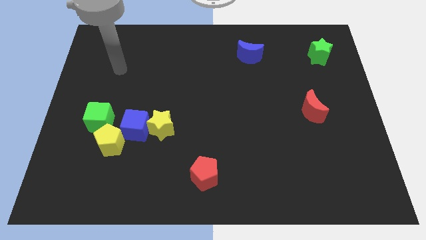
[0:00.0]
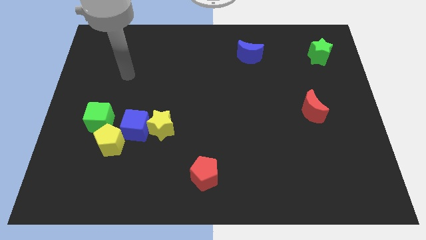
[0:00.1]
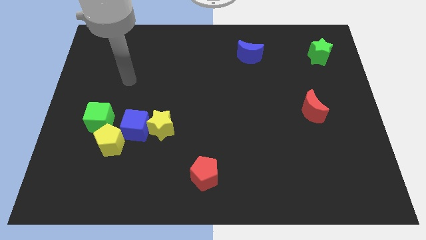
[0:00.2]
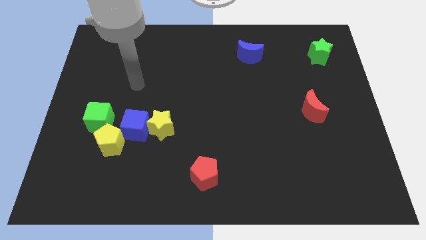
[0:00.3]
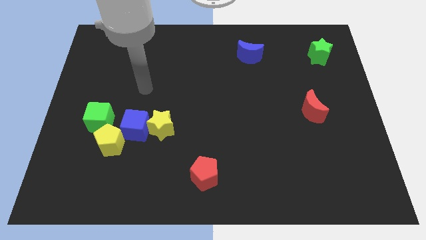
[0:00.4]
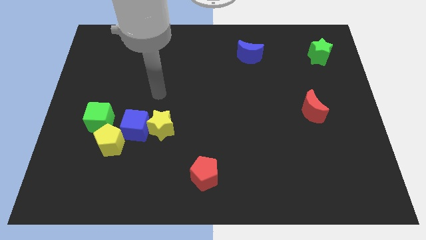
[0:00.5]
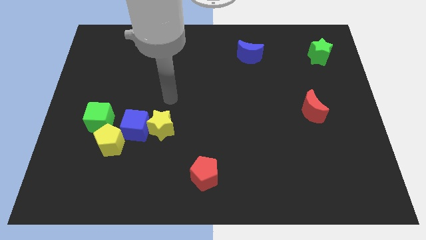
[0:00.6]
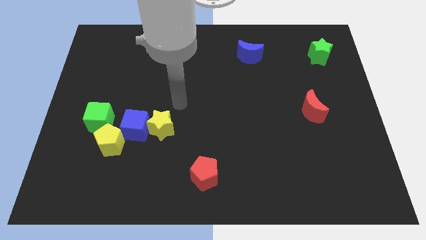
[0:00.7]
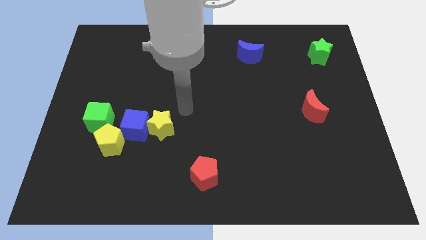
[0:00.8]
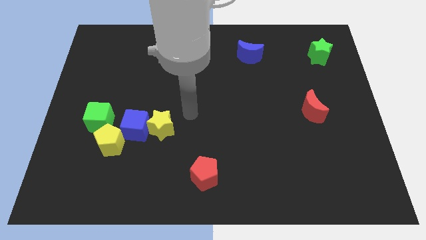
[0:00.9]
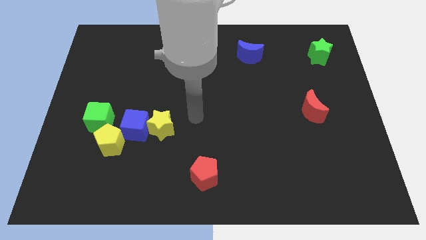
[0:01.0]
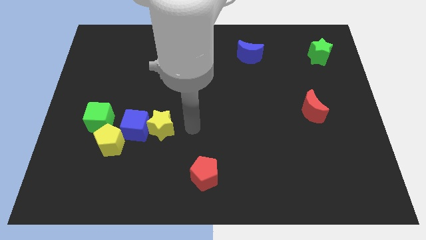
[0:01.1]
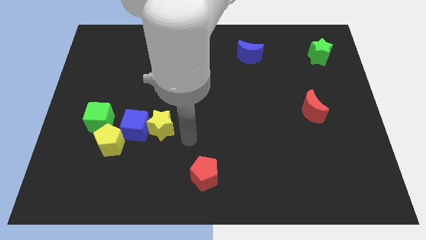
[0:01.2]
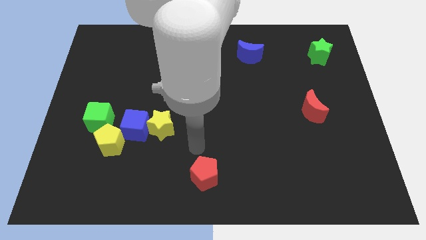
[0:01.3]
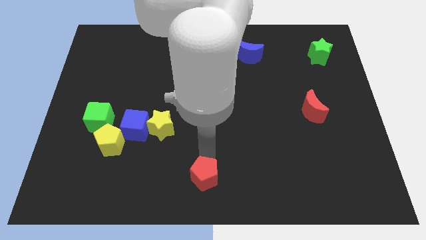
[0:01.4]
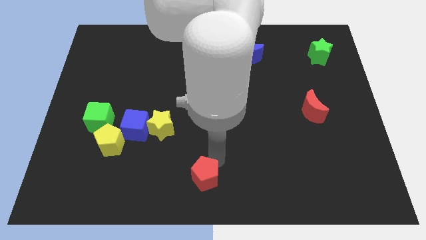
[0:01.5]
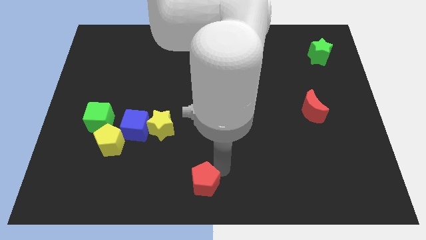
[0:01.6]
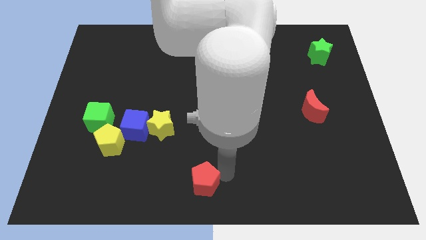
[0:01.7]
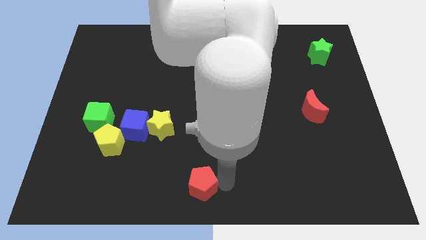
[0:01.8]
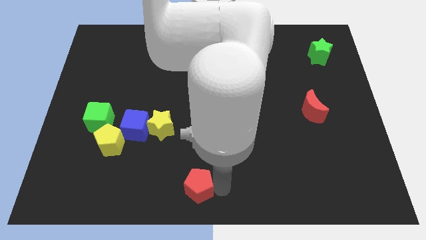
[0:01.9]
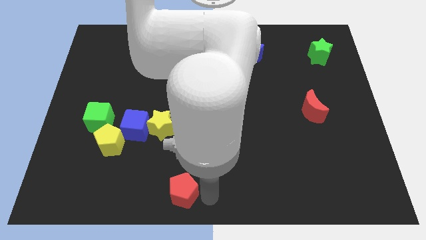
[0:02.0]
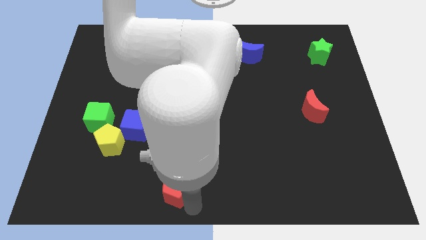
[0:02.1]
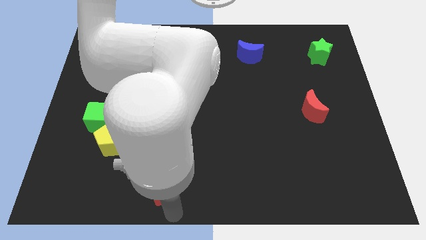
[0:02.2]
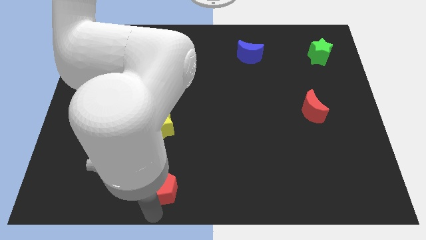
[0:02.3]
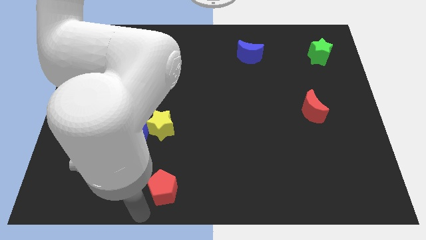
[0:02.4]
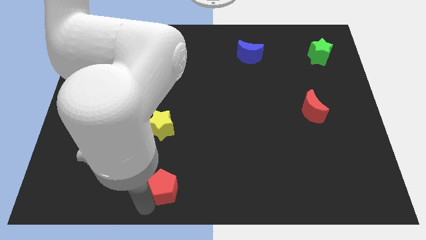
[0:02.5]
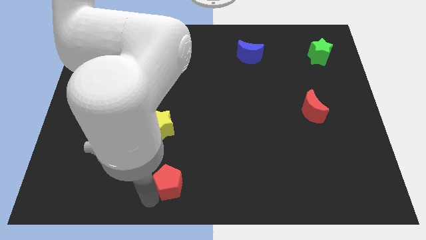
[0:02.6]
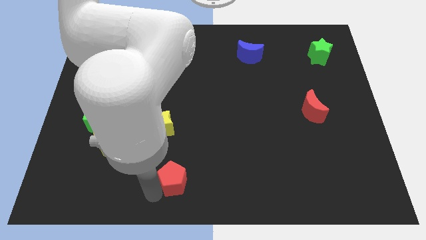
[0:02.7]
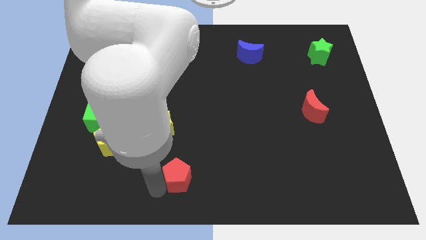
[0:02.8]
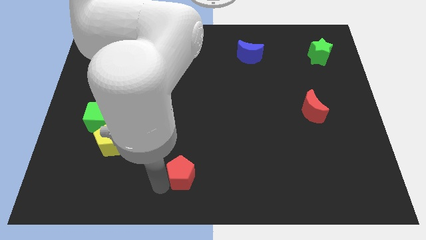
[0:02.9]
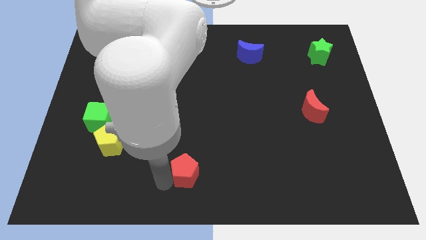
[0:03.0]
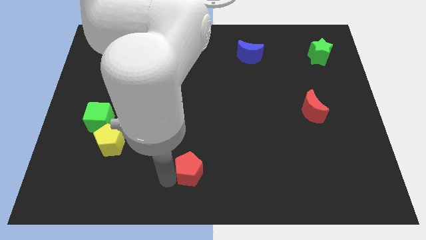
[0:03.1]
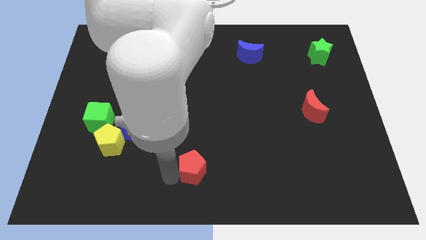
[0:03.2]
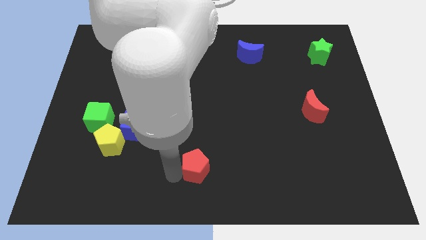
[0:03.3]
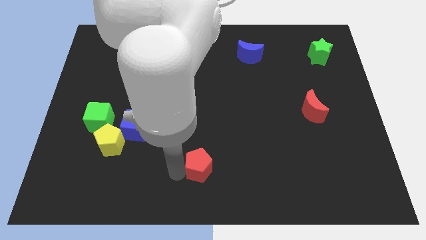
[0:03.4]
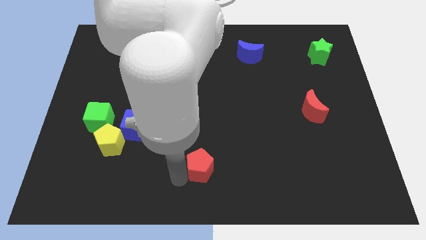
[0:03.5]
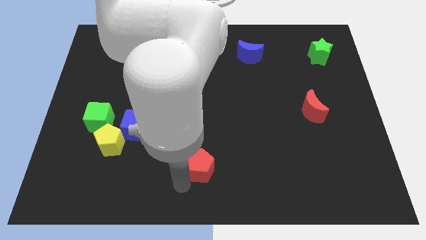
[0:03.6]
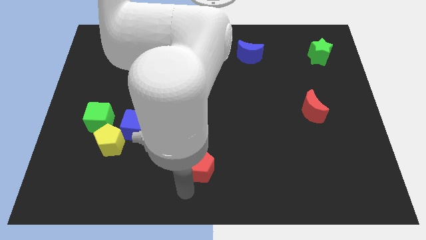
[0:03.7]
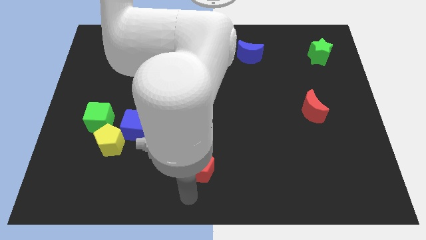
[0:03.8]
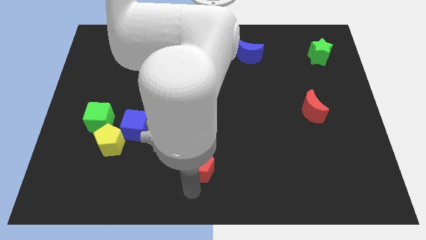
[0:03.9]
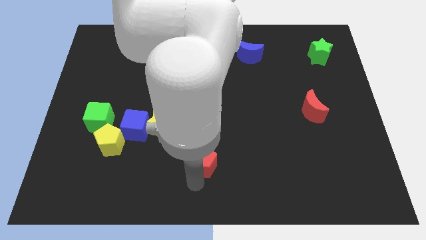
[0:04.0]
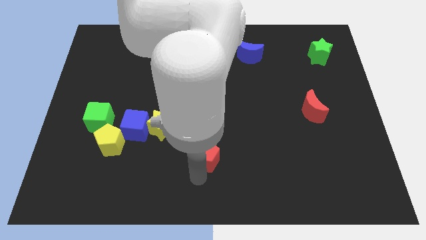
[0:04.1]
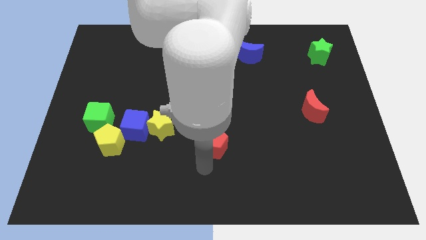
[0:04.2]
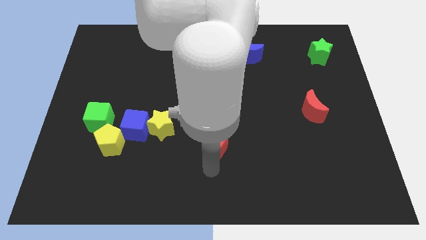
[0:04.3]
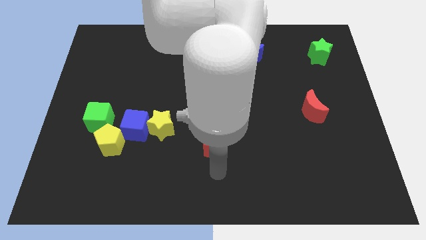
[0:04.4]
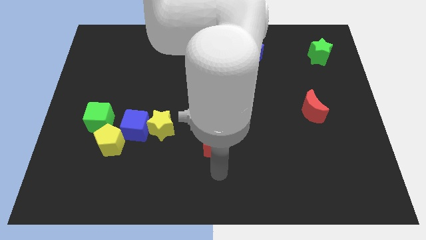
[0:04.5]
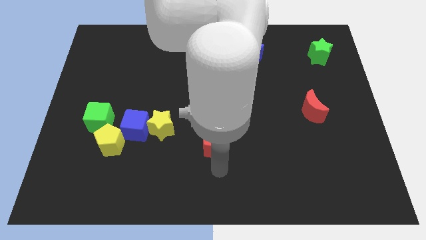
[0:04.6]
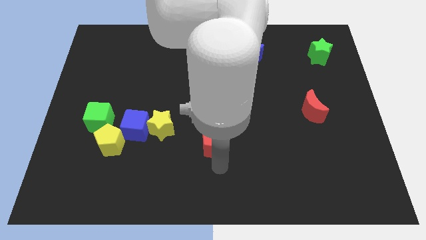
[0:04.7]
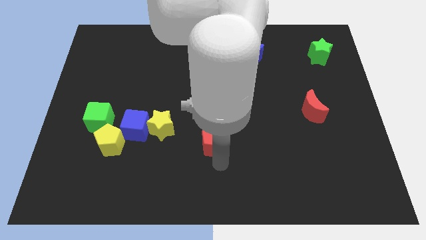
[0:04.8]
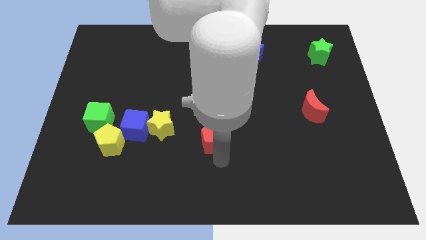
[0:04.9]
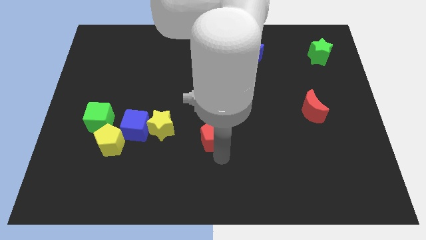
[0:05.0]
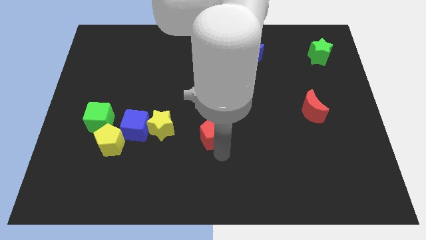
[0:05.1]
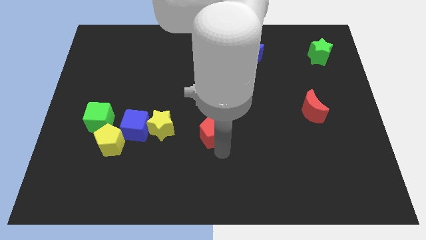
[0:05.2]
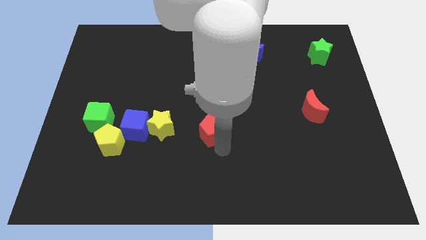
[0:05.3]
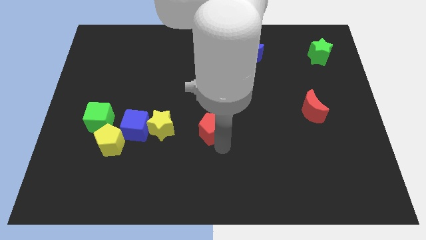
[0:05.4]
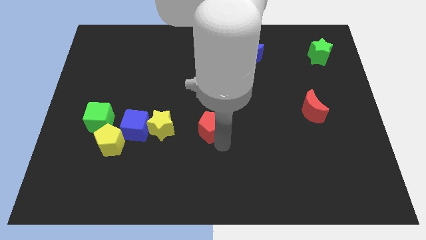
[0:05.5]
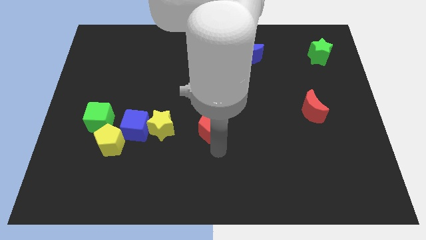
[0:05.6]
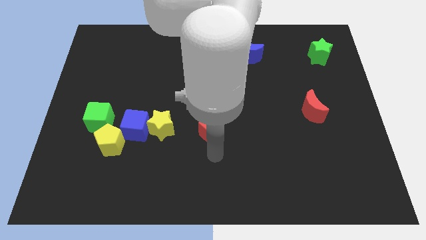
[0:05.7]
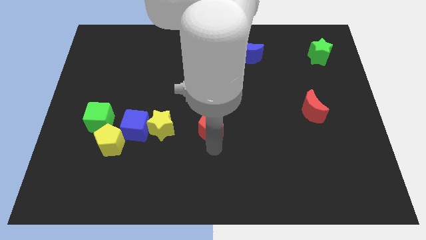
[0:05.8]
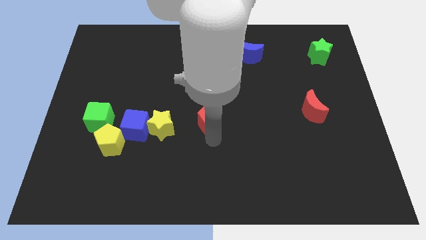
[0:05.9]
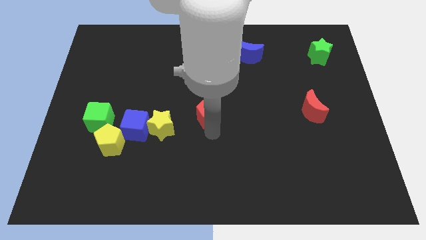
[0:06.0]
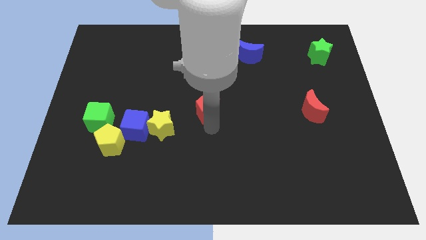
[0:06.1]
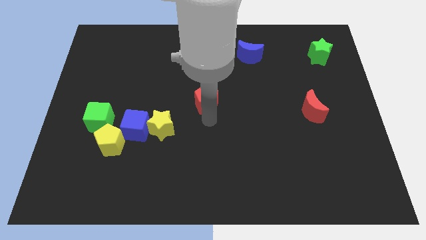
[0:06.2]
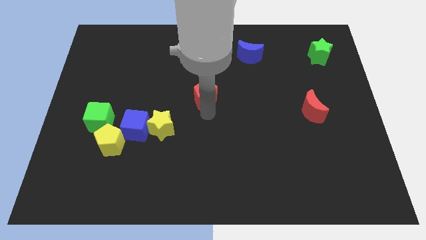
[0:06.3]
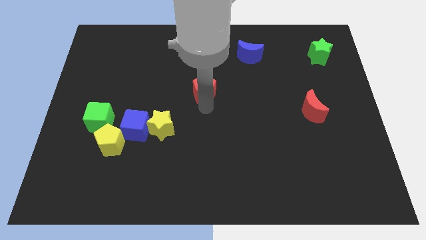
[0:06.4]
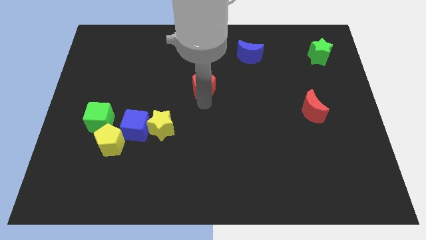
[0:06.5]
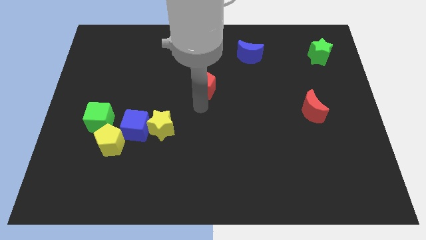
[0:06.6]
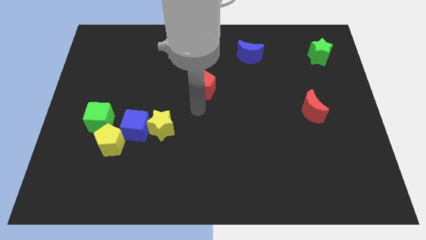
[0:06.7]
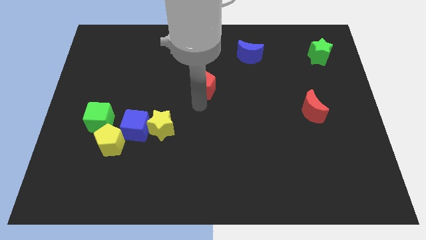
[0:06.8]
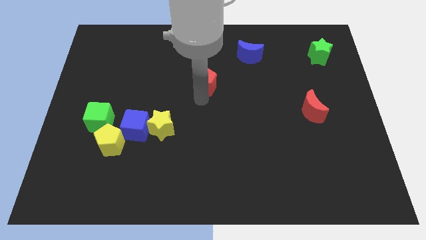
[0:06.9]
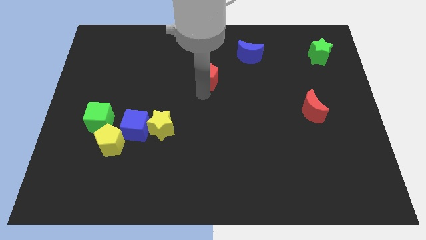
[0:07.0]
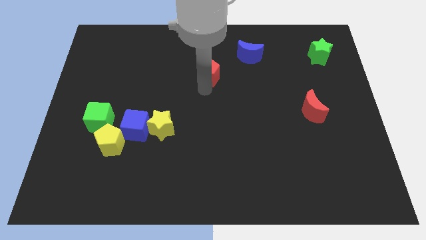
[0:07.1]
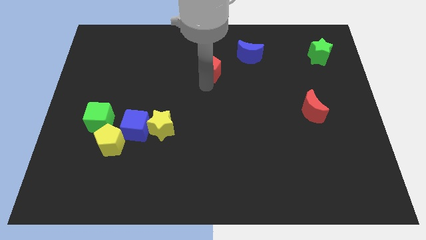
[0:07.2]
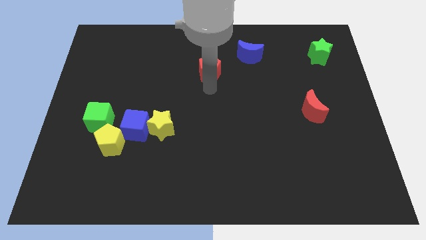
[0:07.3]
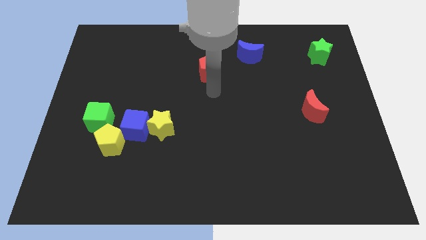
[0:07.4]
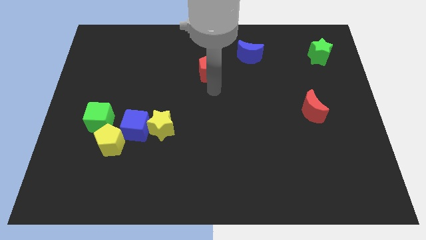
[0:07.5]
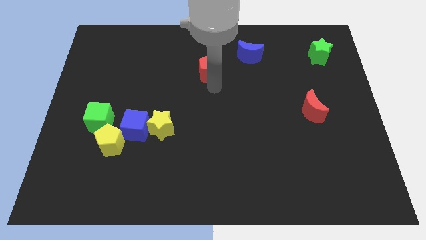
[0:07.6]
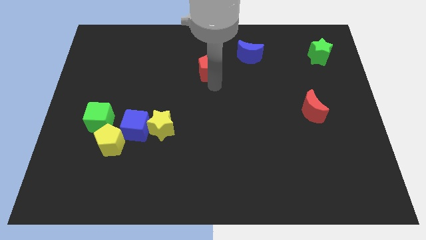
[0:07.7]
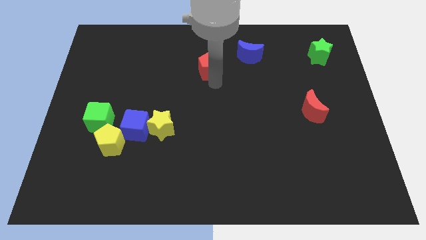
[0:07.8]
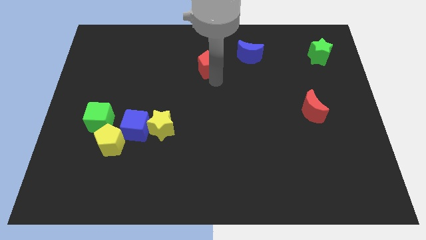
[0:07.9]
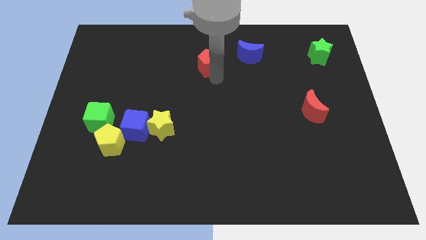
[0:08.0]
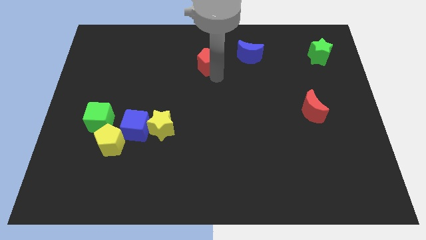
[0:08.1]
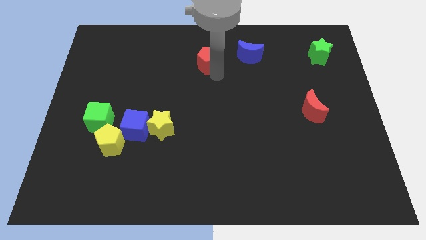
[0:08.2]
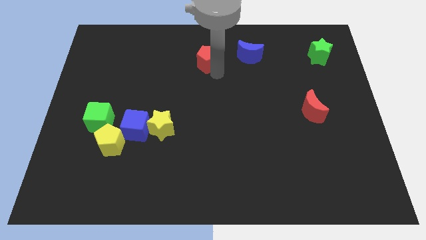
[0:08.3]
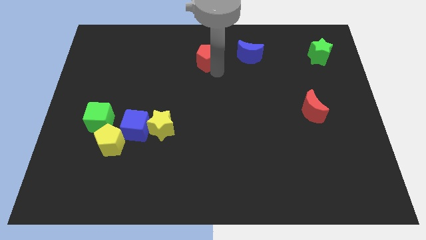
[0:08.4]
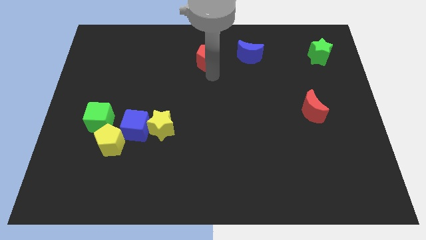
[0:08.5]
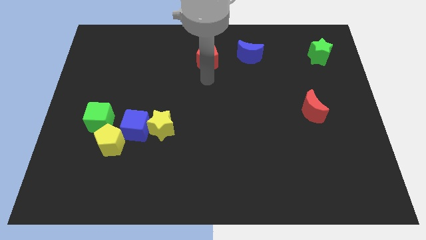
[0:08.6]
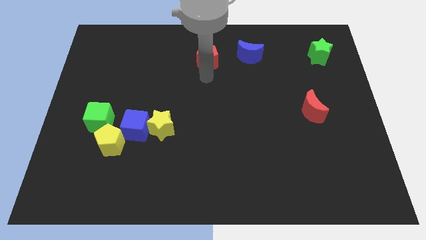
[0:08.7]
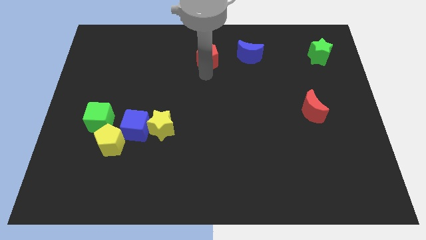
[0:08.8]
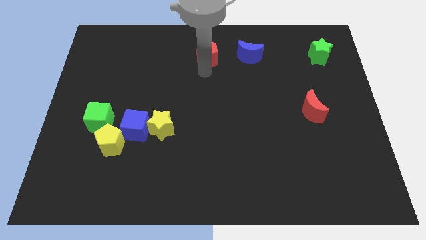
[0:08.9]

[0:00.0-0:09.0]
push the red pentagon to the towards your base
